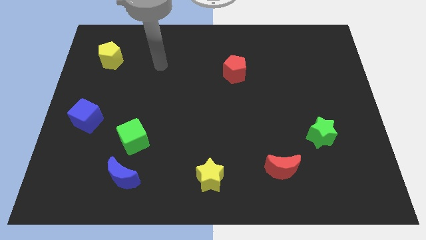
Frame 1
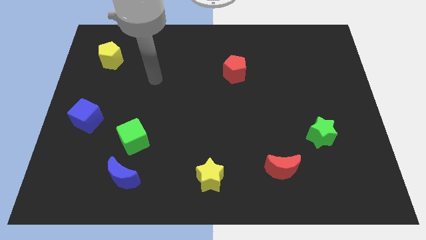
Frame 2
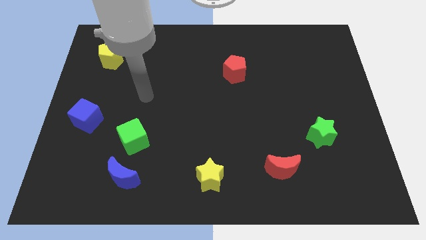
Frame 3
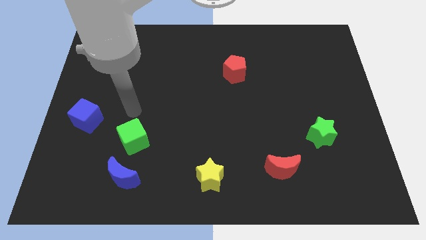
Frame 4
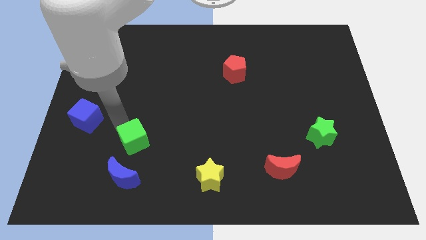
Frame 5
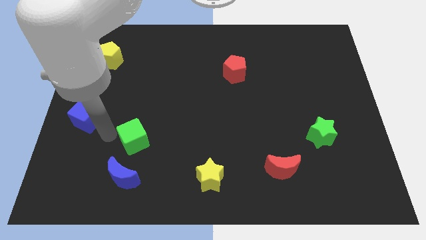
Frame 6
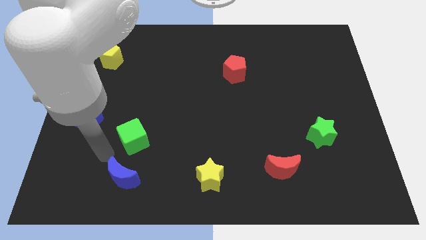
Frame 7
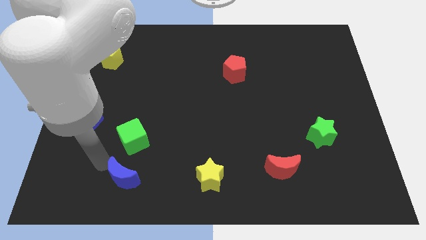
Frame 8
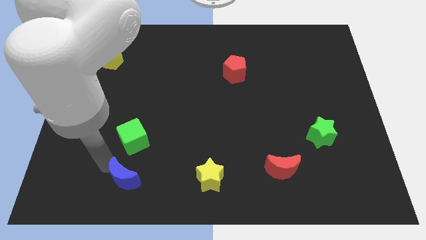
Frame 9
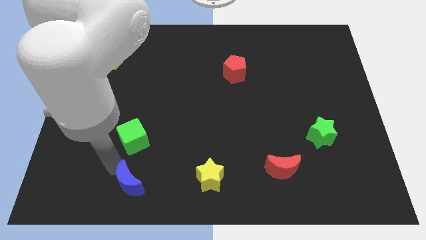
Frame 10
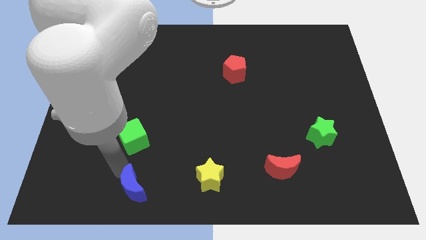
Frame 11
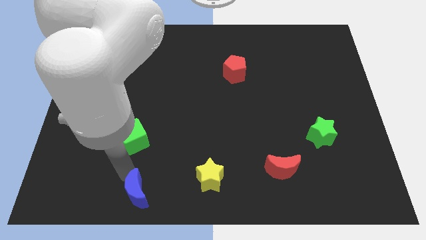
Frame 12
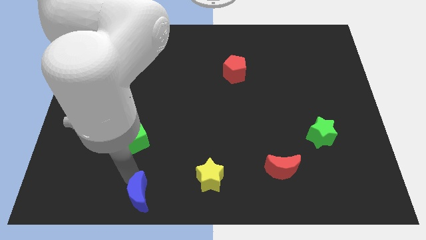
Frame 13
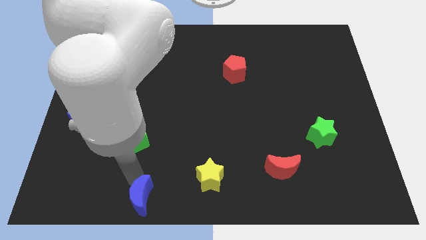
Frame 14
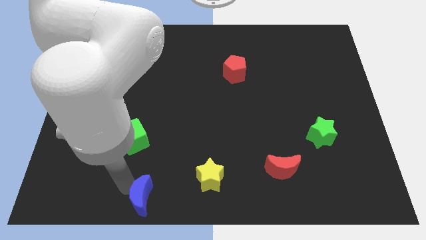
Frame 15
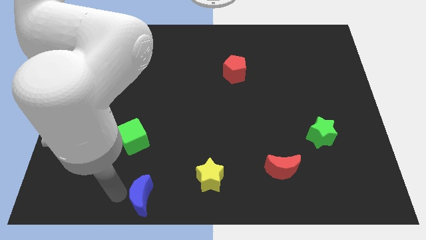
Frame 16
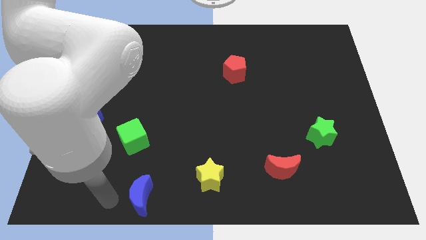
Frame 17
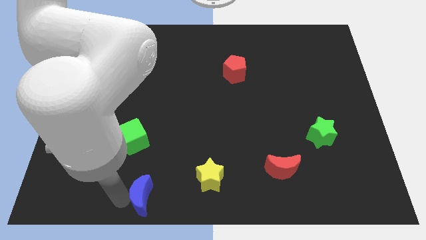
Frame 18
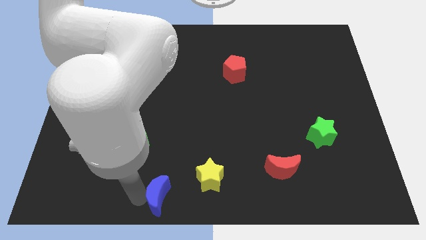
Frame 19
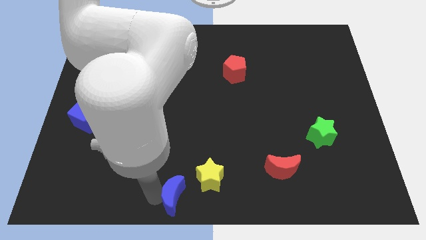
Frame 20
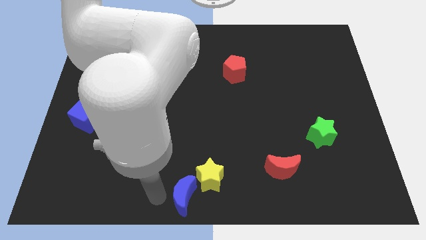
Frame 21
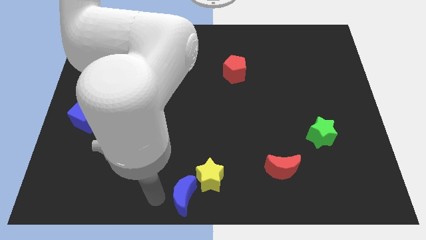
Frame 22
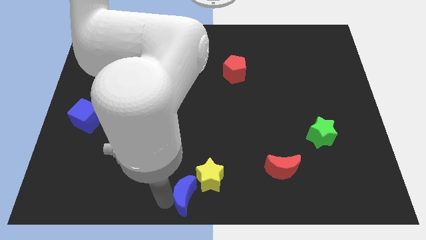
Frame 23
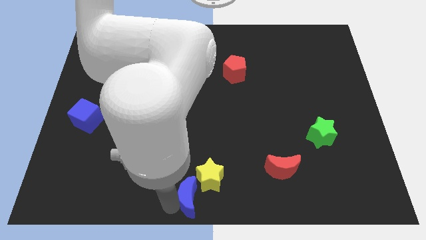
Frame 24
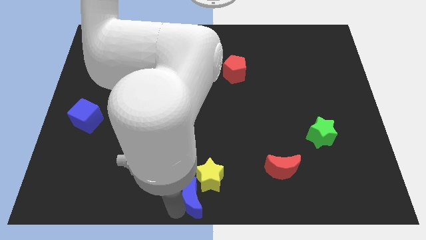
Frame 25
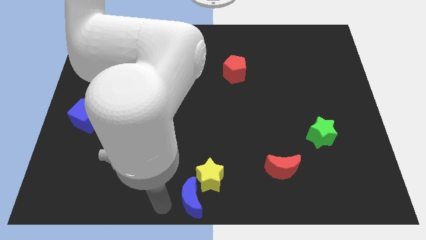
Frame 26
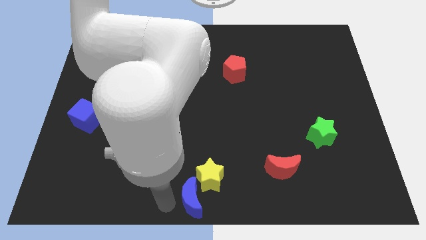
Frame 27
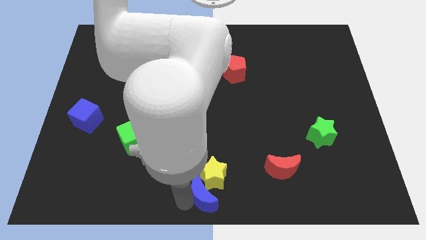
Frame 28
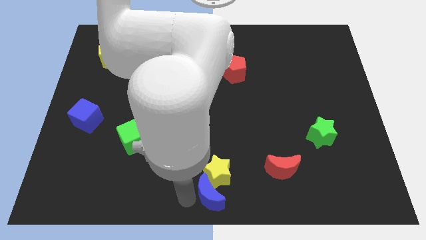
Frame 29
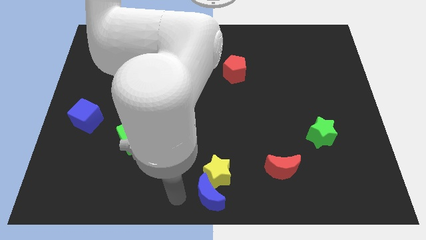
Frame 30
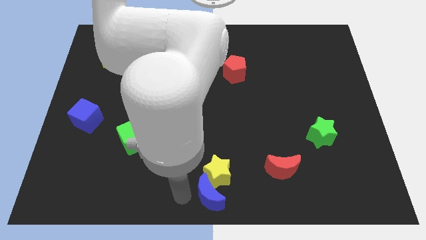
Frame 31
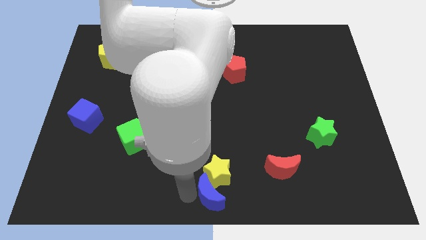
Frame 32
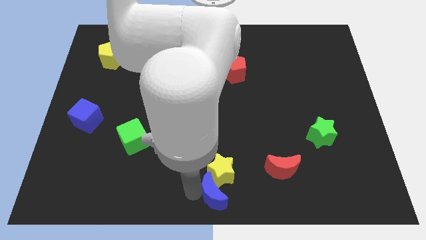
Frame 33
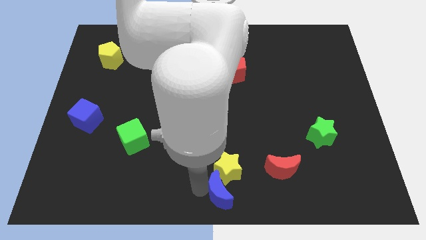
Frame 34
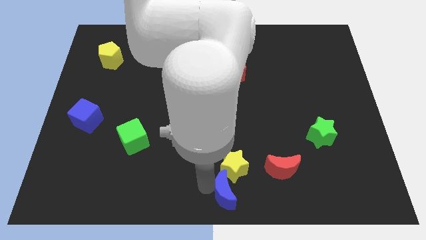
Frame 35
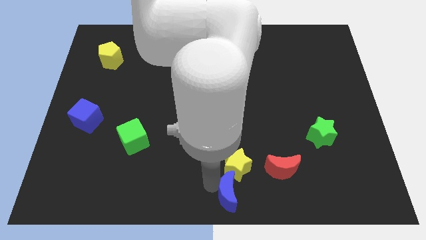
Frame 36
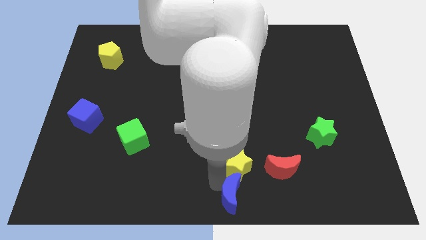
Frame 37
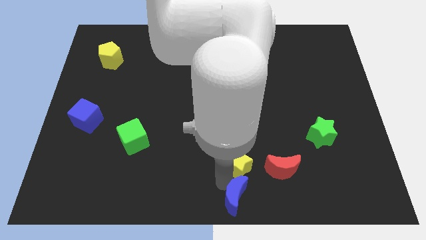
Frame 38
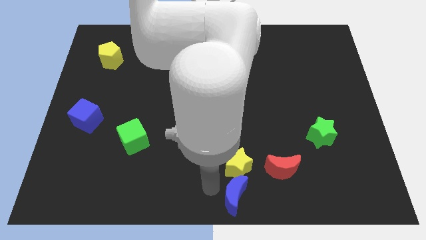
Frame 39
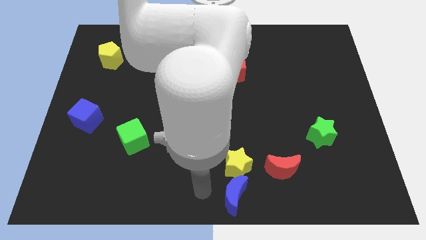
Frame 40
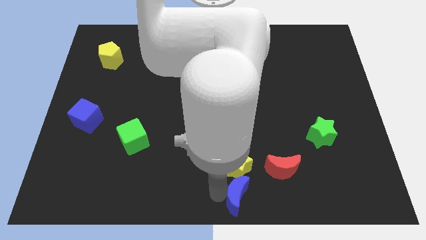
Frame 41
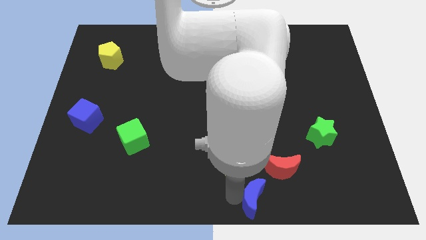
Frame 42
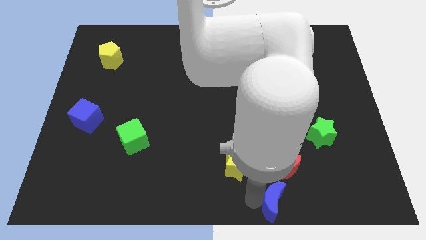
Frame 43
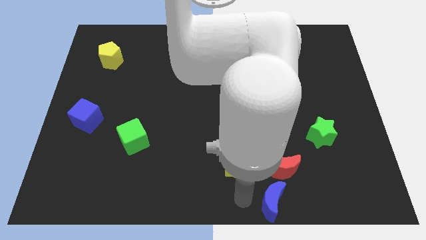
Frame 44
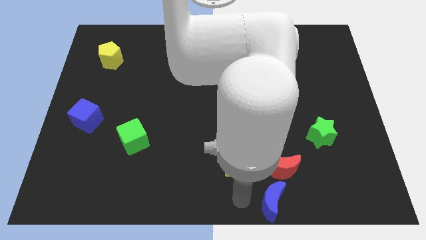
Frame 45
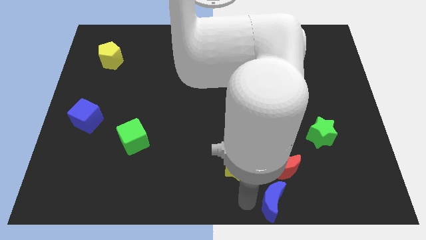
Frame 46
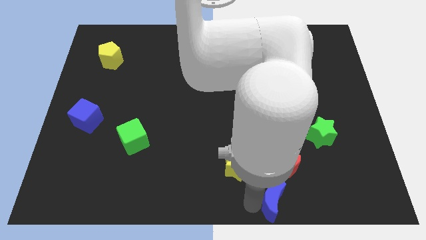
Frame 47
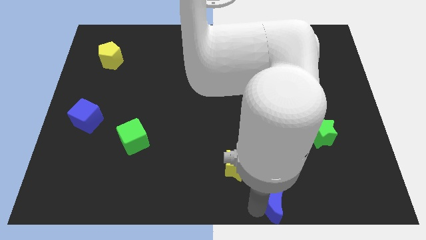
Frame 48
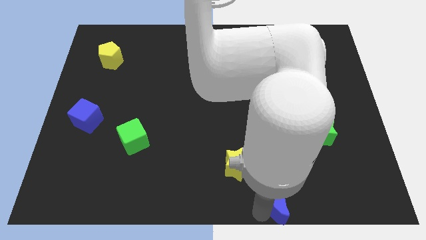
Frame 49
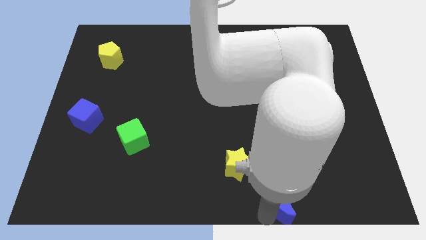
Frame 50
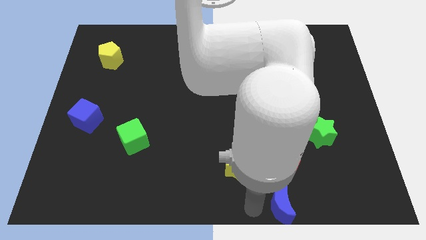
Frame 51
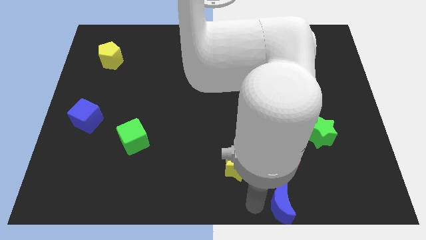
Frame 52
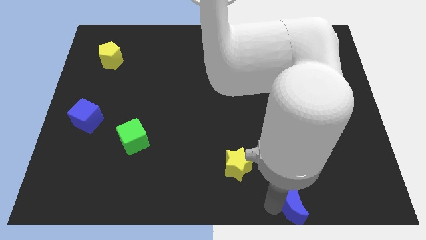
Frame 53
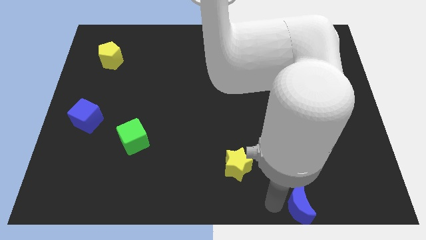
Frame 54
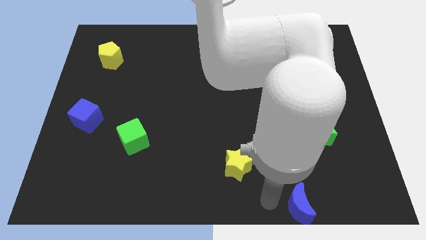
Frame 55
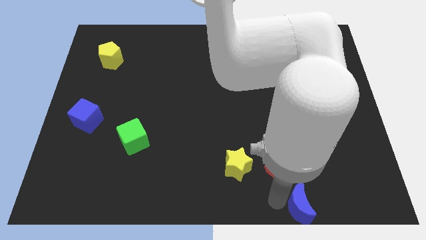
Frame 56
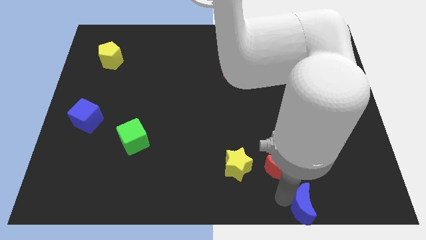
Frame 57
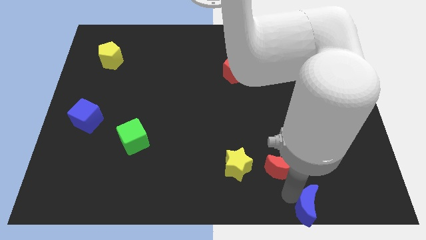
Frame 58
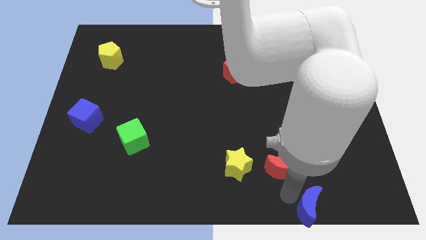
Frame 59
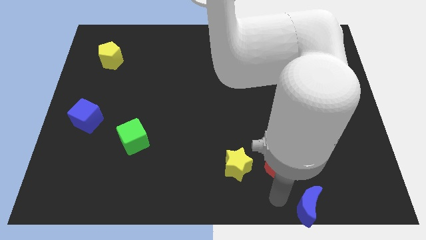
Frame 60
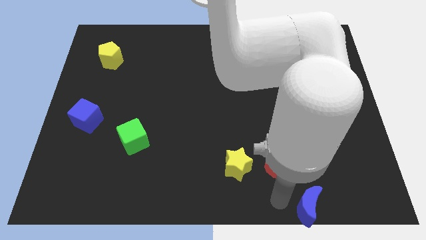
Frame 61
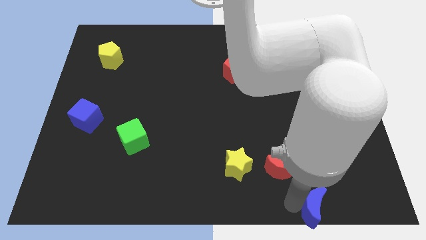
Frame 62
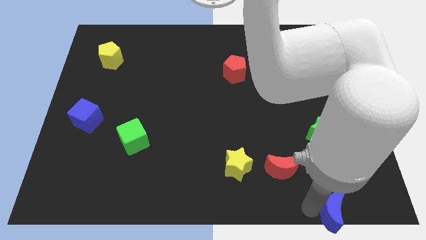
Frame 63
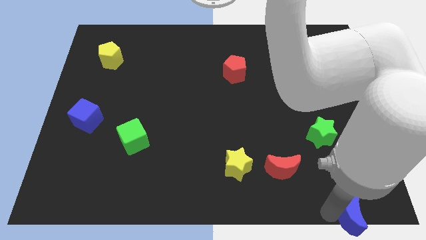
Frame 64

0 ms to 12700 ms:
put the blue moon to the bottom right of the board
